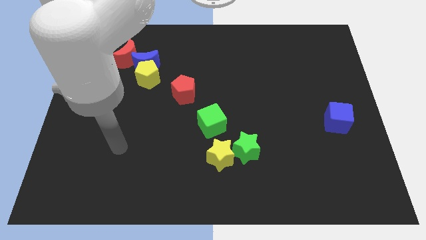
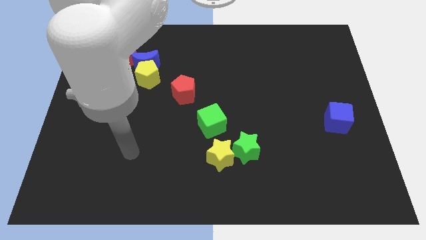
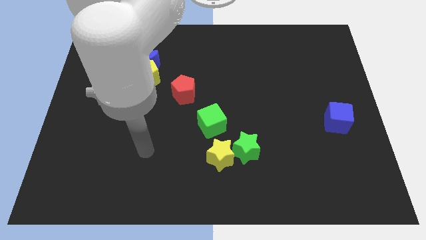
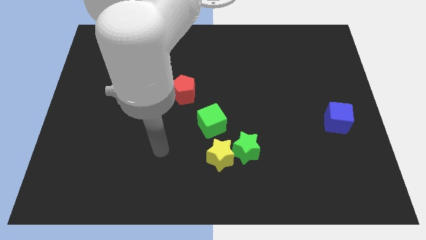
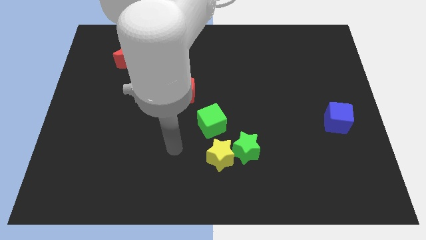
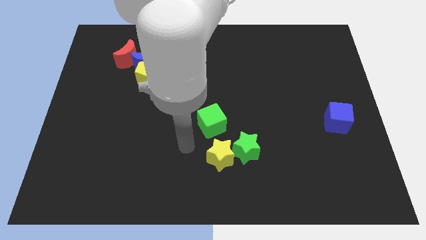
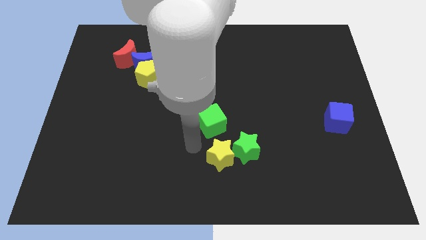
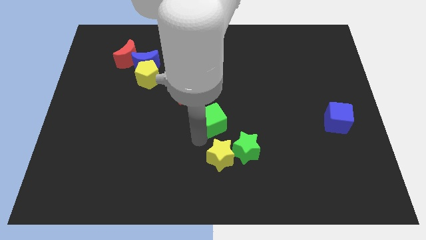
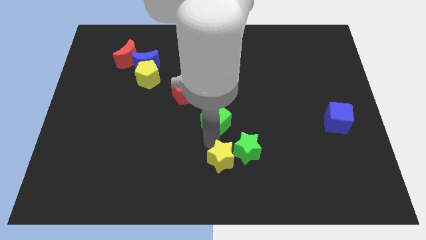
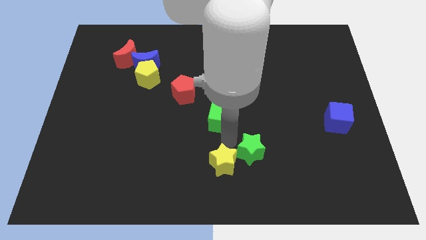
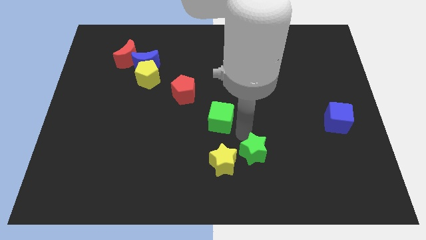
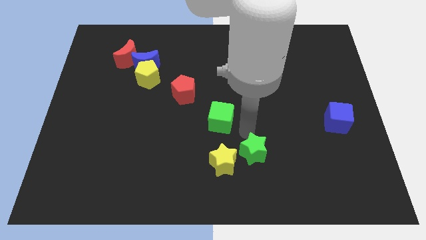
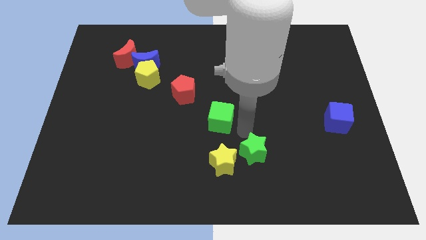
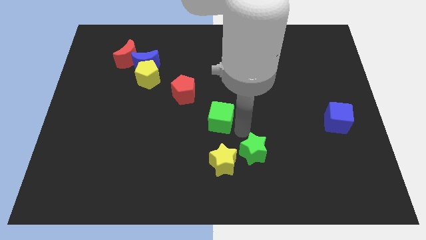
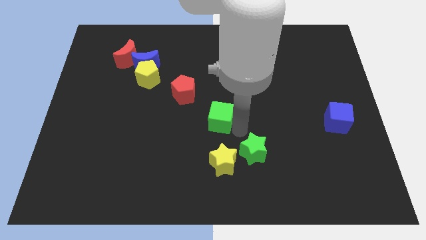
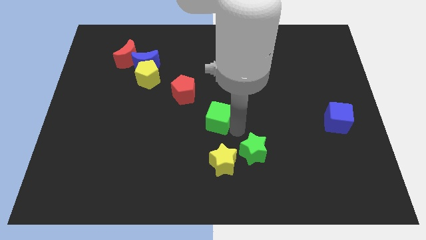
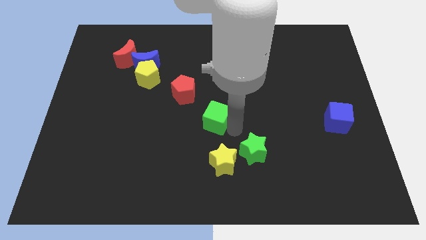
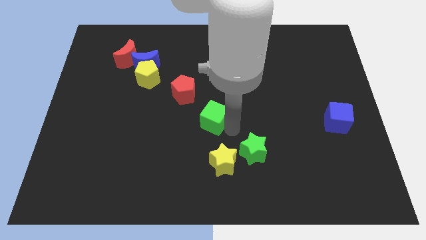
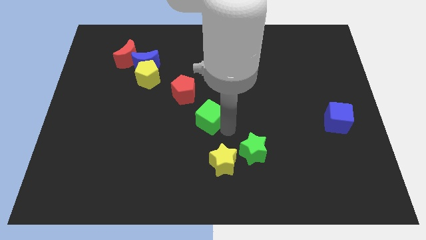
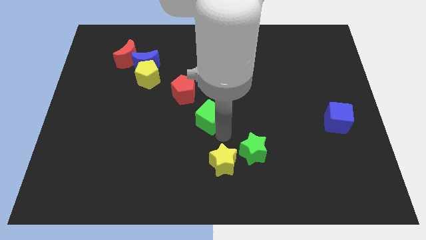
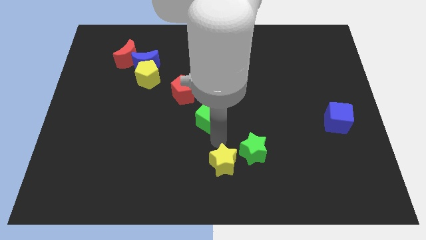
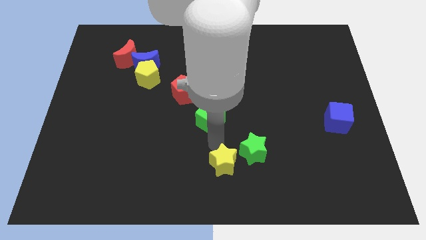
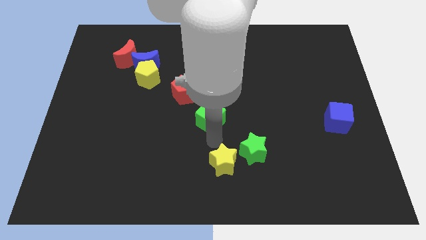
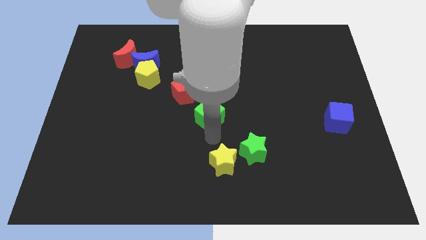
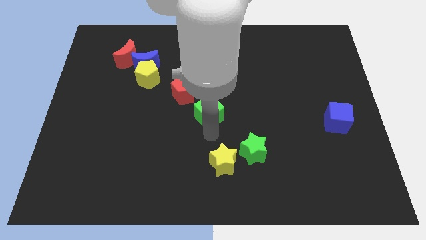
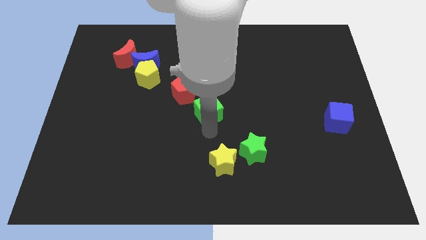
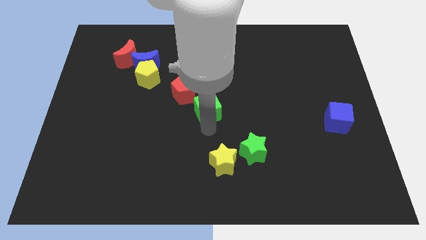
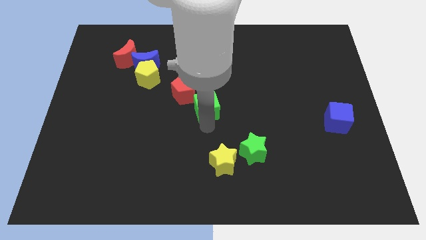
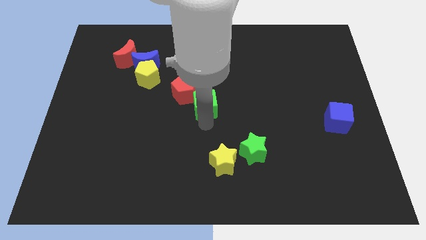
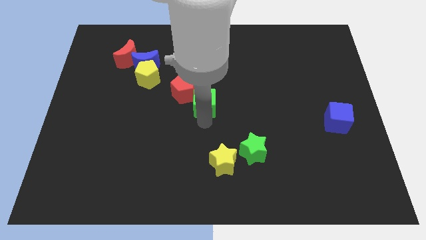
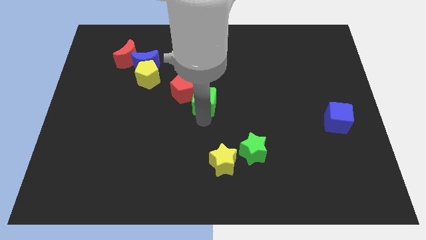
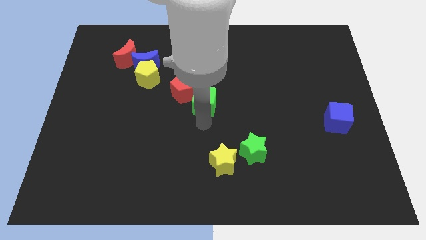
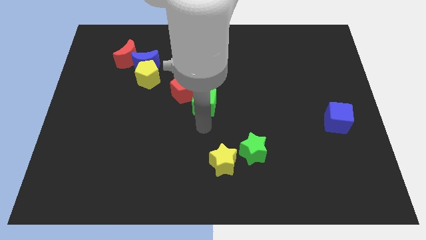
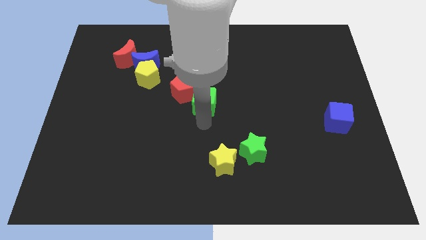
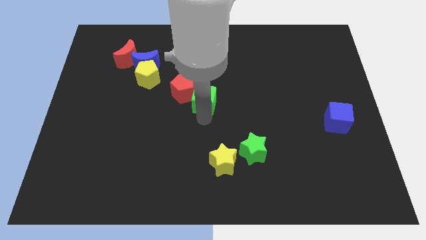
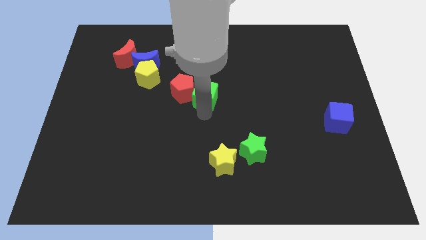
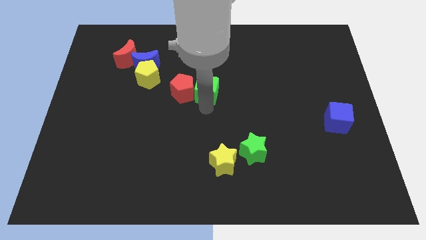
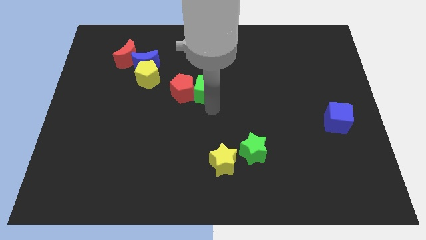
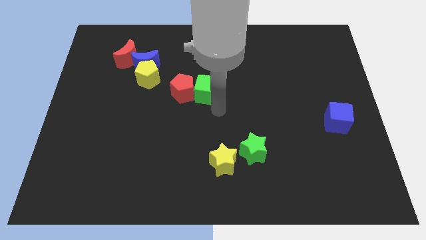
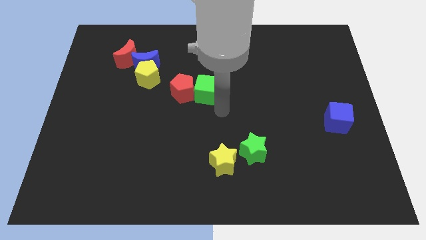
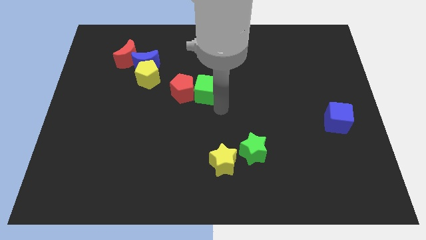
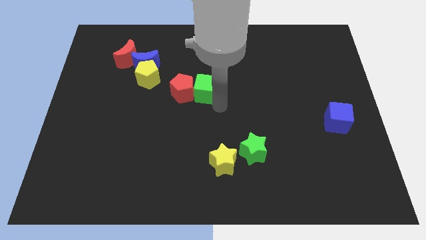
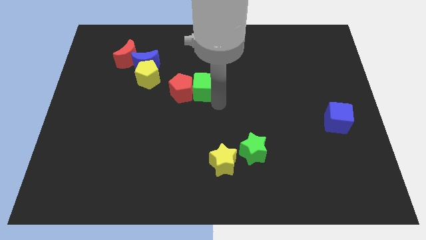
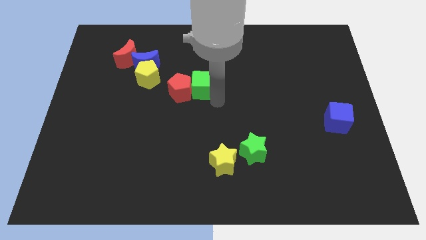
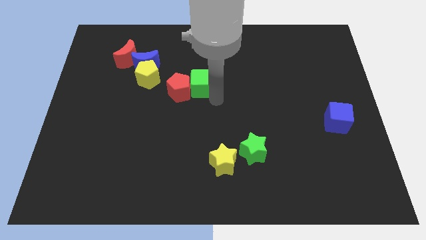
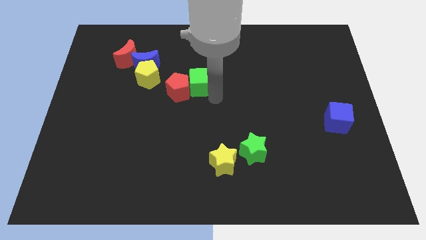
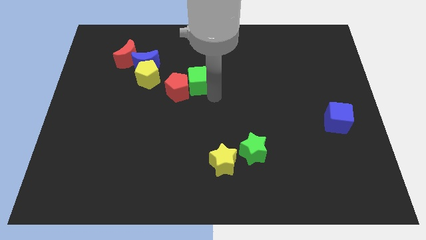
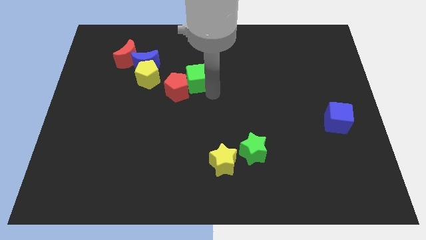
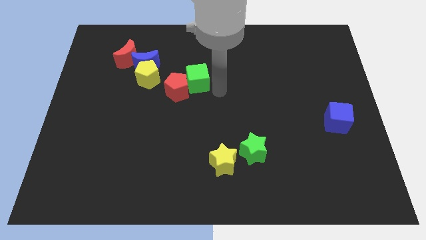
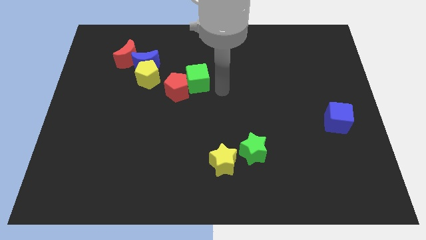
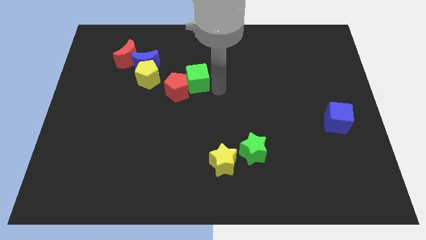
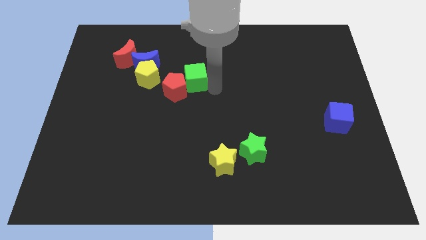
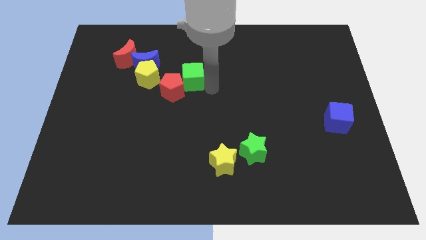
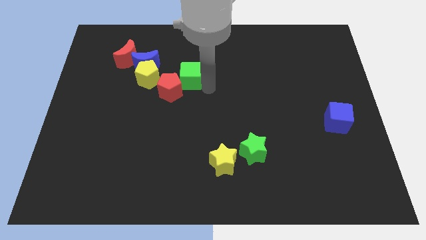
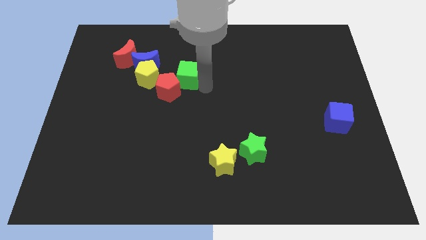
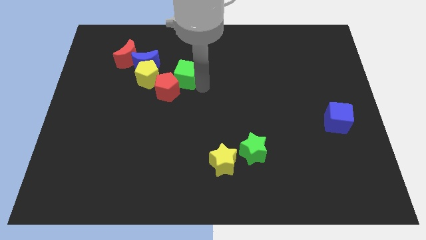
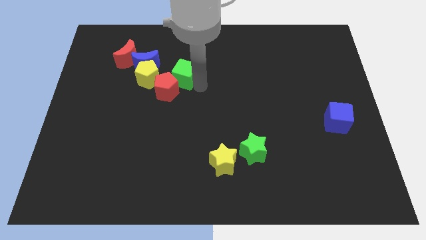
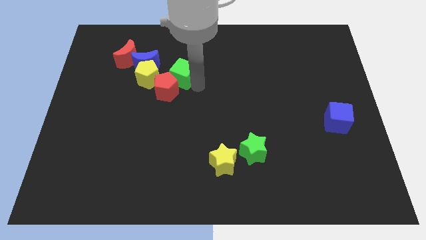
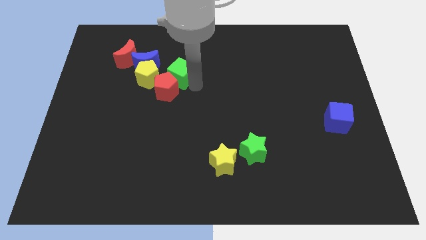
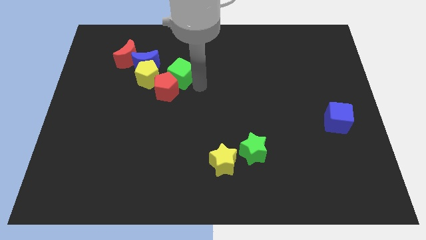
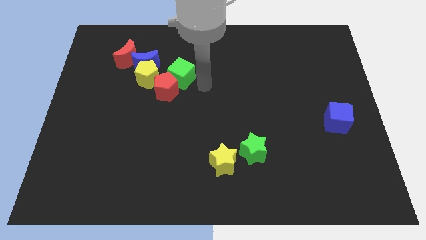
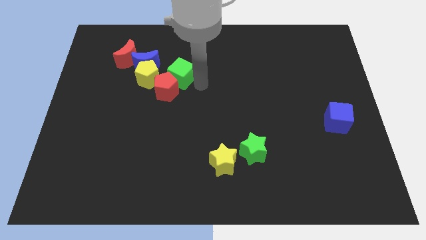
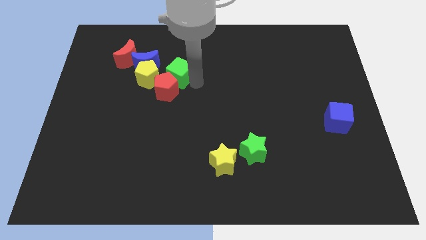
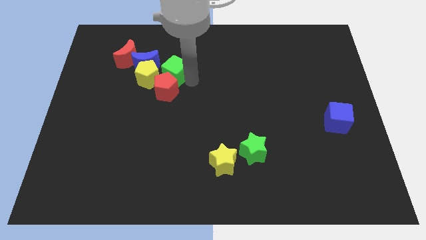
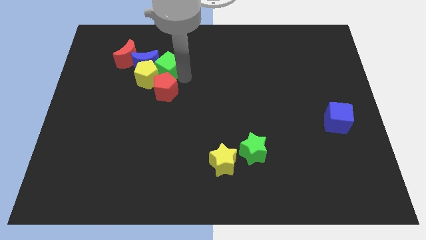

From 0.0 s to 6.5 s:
push the green cube to the blue moon
